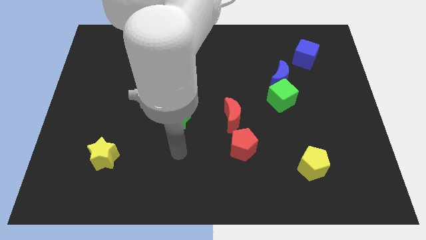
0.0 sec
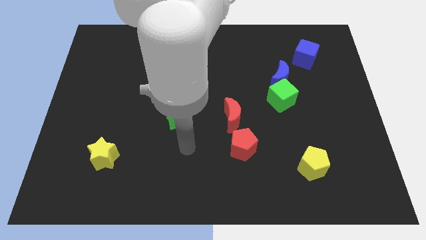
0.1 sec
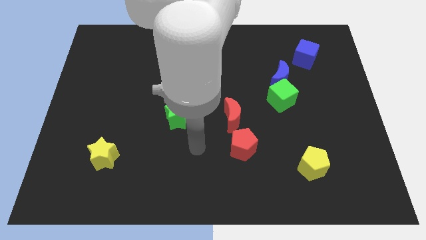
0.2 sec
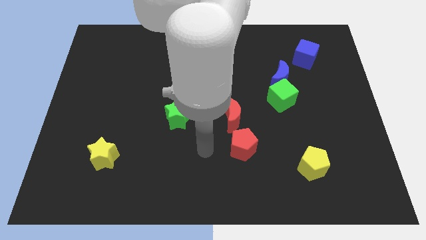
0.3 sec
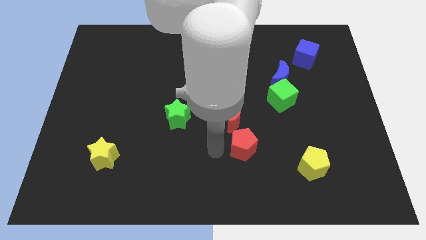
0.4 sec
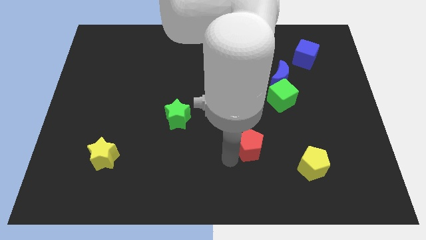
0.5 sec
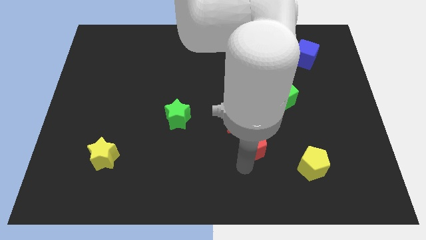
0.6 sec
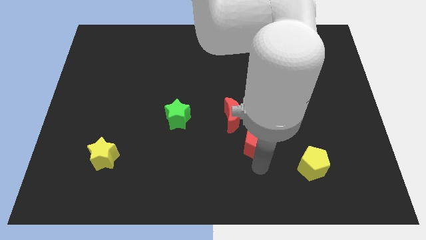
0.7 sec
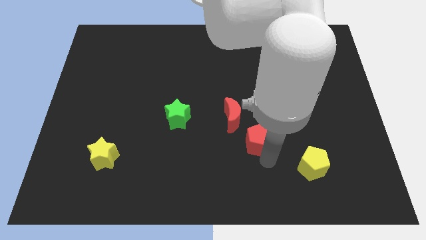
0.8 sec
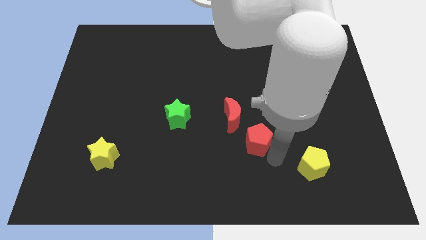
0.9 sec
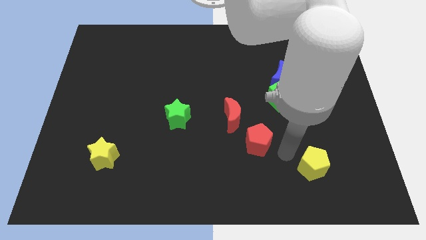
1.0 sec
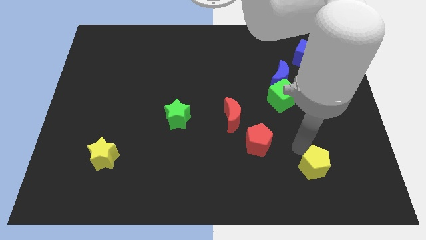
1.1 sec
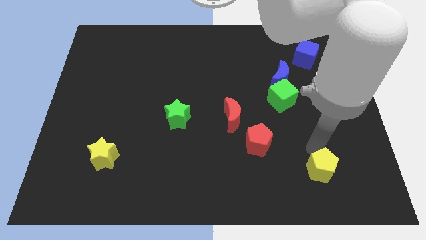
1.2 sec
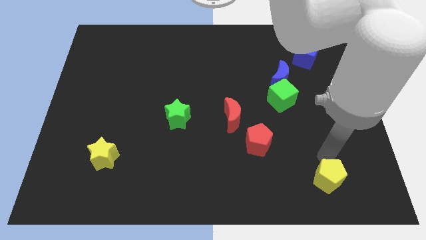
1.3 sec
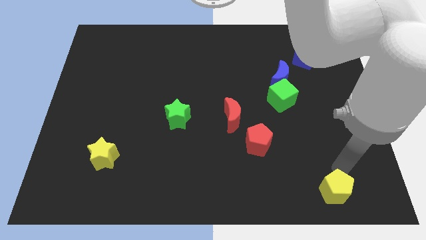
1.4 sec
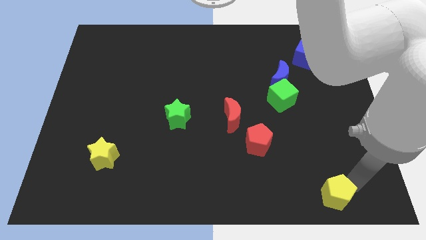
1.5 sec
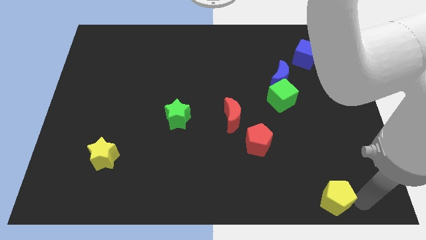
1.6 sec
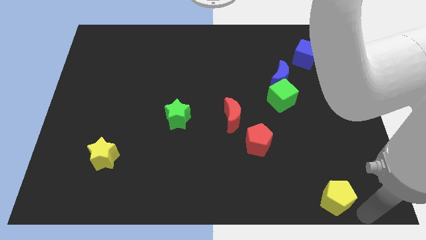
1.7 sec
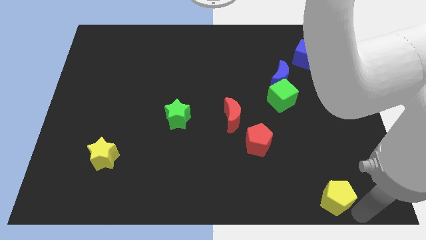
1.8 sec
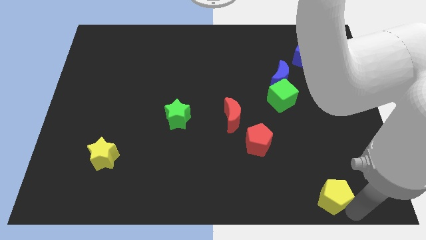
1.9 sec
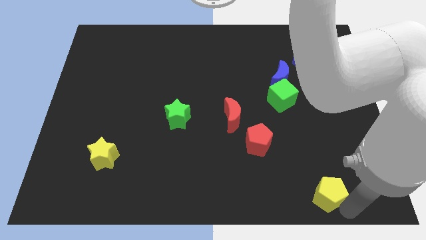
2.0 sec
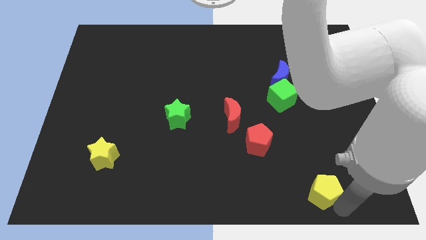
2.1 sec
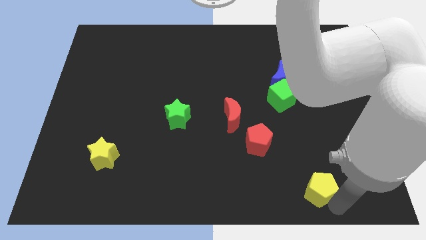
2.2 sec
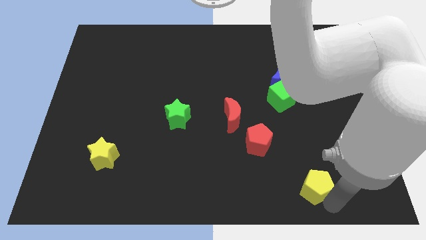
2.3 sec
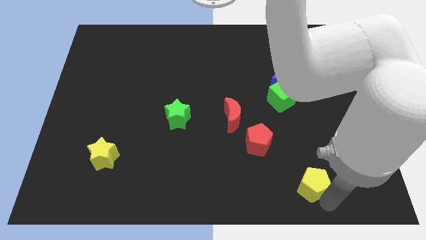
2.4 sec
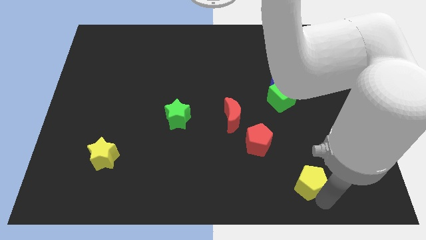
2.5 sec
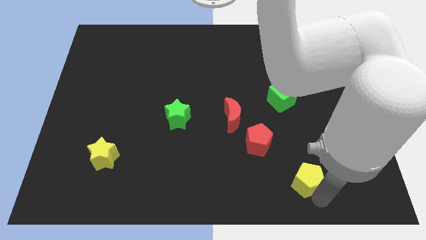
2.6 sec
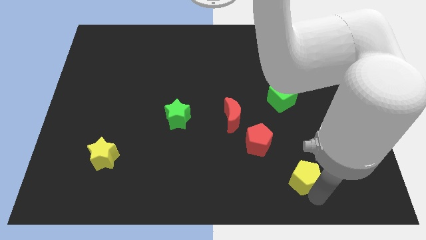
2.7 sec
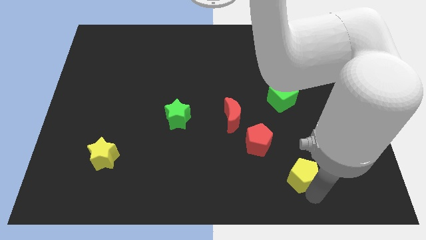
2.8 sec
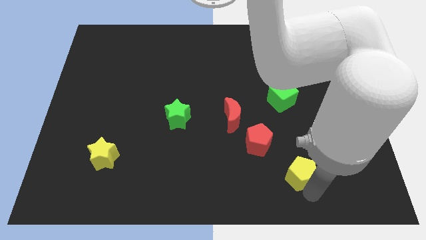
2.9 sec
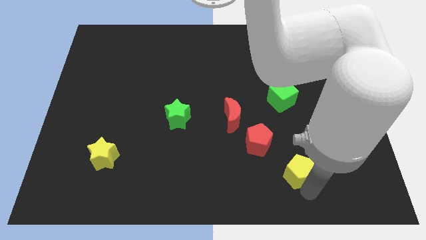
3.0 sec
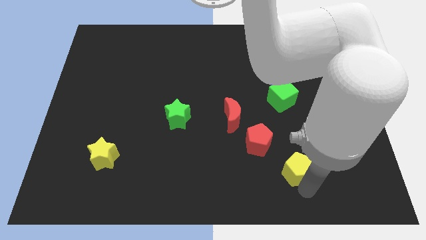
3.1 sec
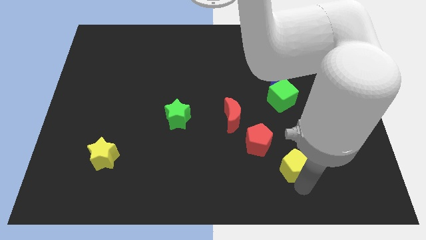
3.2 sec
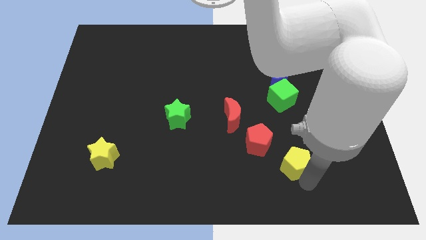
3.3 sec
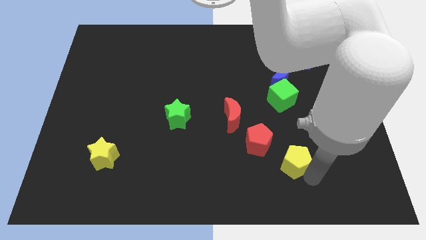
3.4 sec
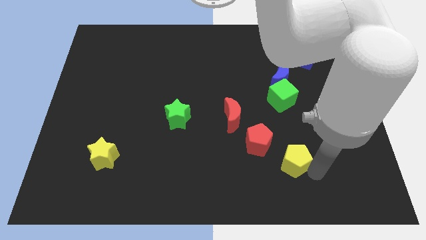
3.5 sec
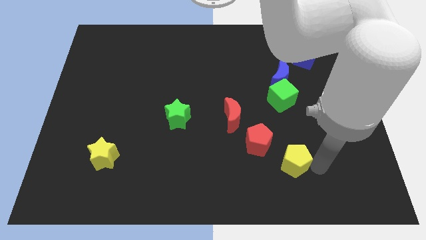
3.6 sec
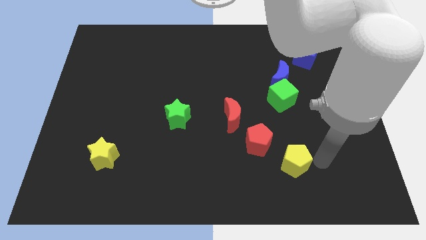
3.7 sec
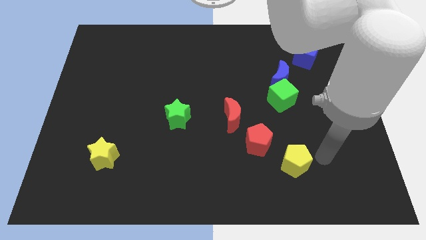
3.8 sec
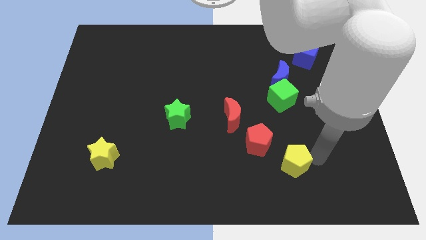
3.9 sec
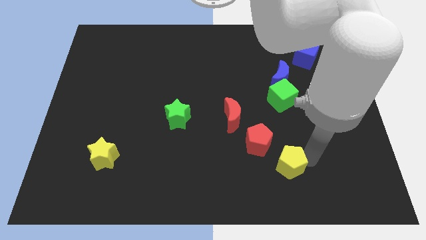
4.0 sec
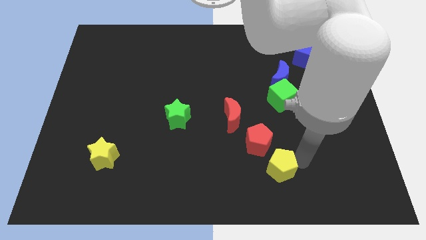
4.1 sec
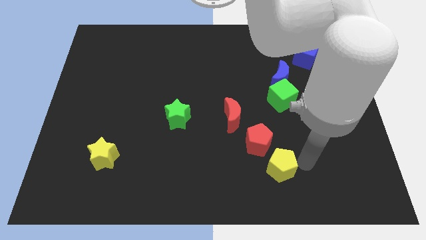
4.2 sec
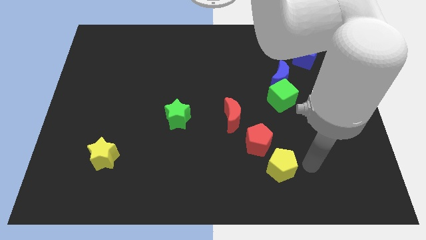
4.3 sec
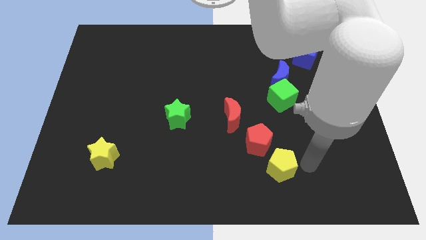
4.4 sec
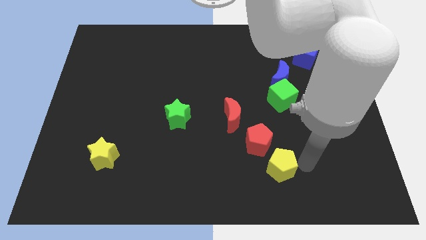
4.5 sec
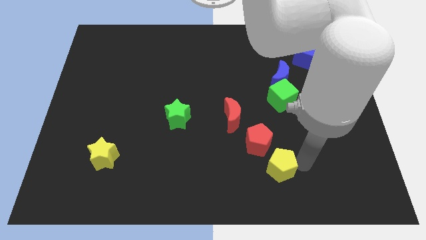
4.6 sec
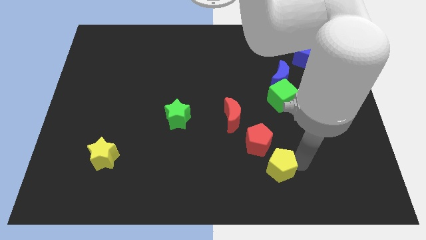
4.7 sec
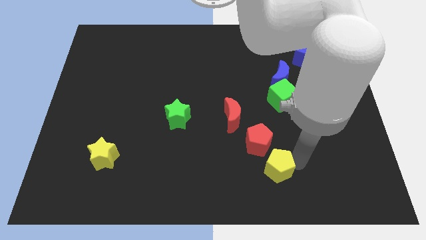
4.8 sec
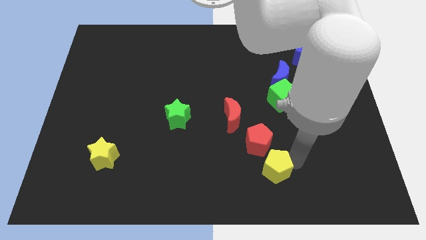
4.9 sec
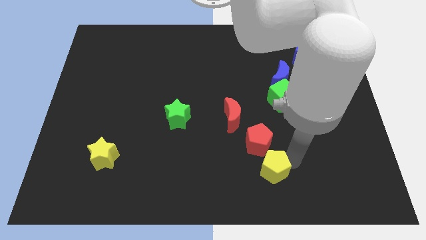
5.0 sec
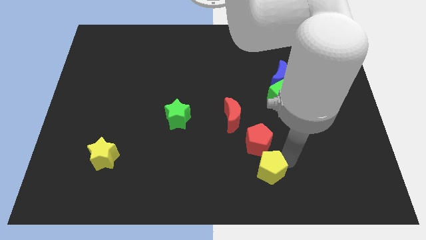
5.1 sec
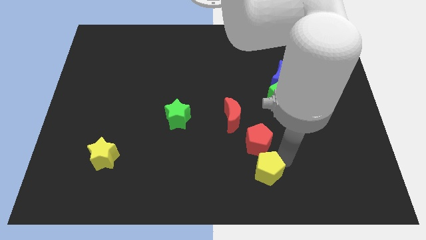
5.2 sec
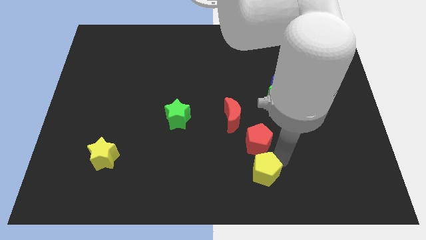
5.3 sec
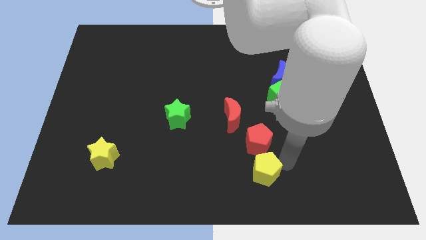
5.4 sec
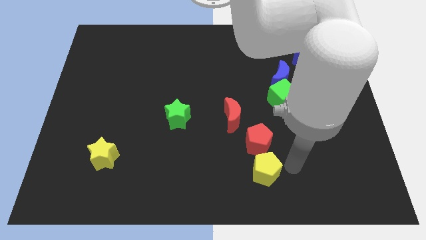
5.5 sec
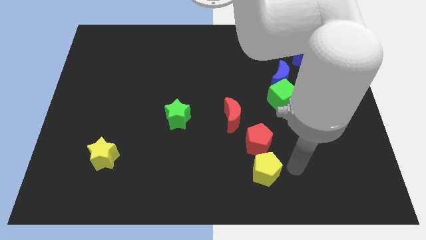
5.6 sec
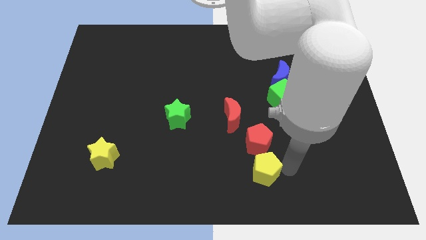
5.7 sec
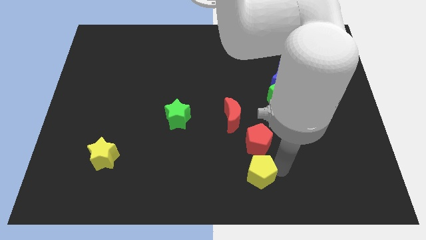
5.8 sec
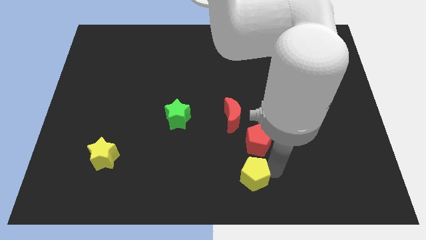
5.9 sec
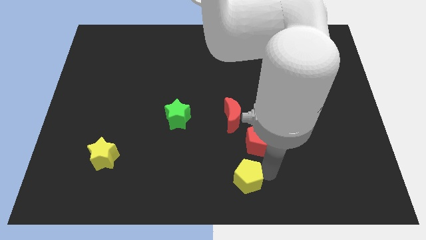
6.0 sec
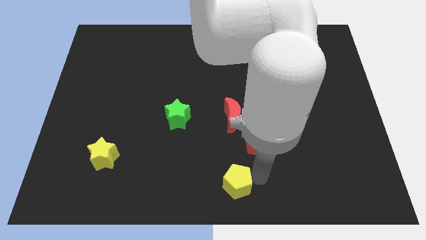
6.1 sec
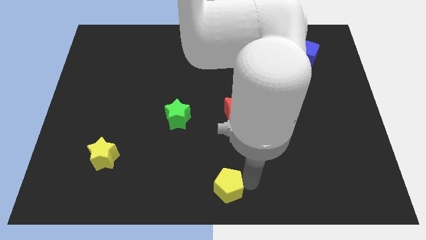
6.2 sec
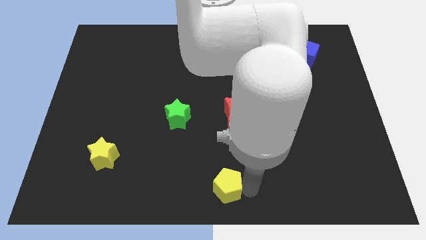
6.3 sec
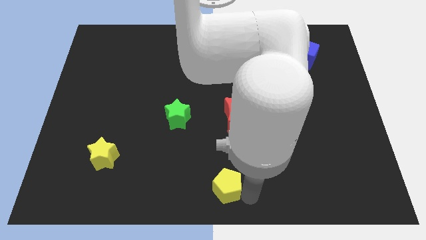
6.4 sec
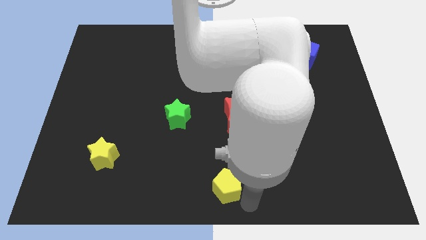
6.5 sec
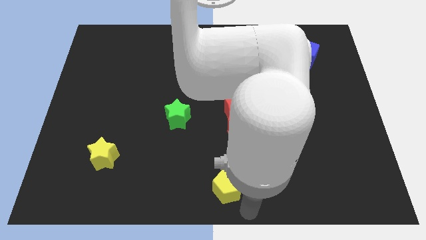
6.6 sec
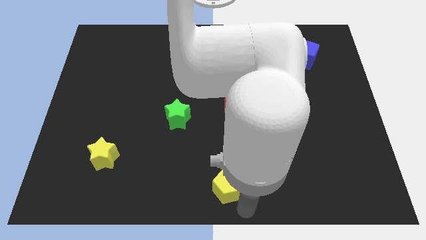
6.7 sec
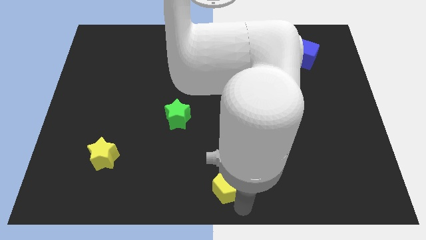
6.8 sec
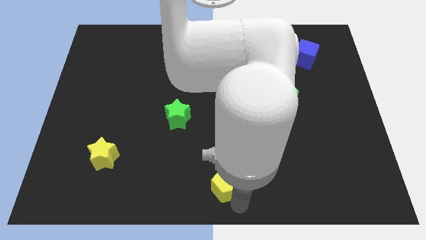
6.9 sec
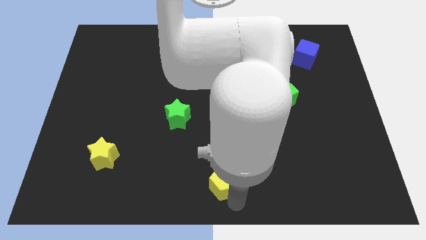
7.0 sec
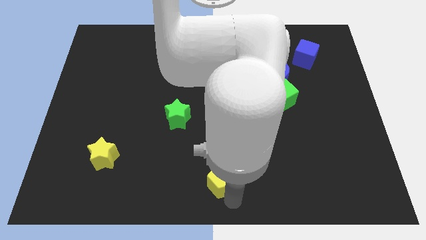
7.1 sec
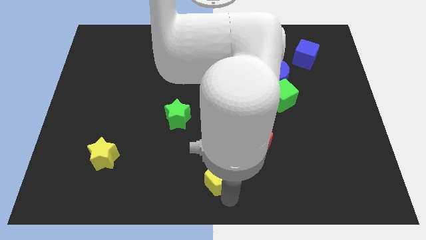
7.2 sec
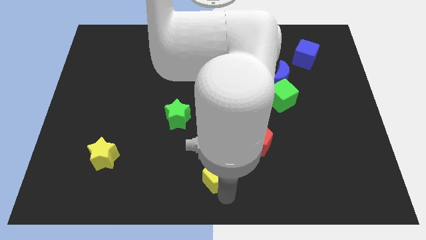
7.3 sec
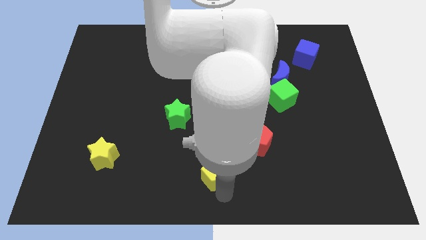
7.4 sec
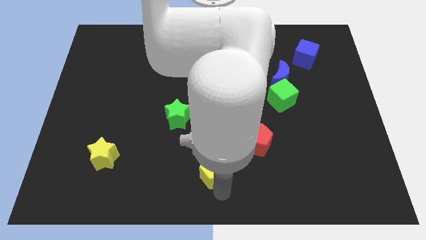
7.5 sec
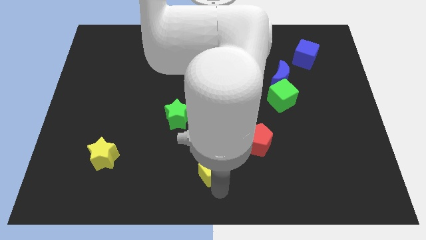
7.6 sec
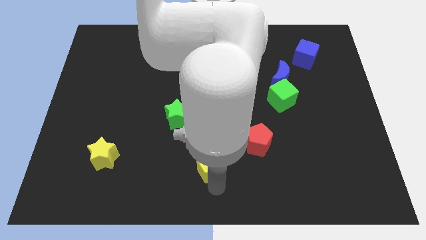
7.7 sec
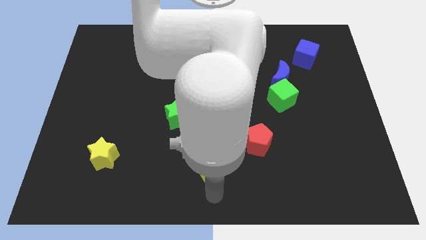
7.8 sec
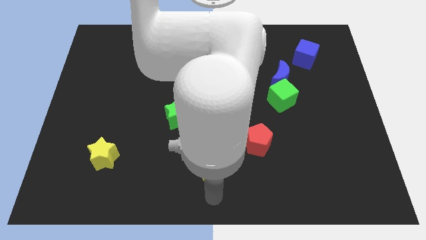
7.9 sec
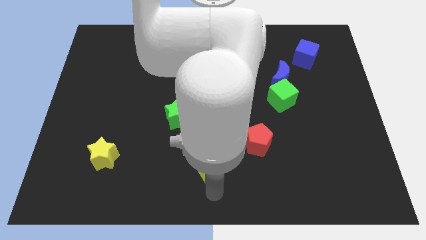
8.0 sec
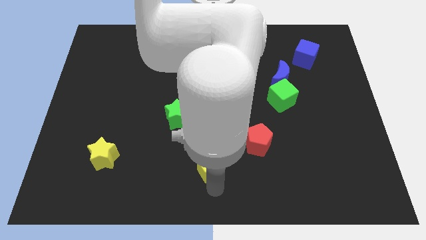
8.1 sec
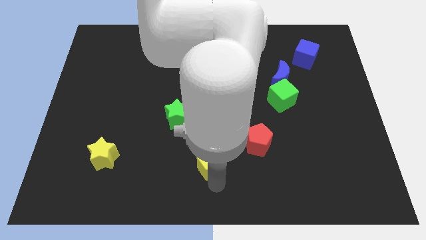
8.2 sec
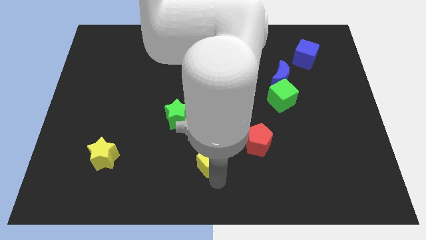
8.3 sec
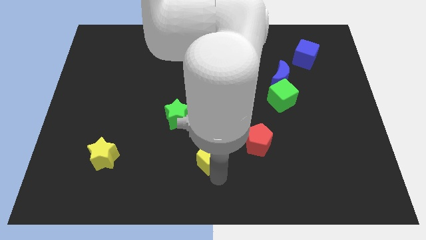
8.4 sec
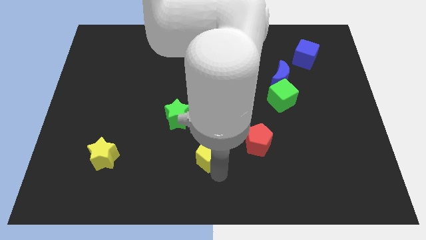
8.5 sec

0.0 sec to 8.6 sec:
push the yellow pentagon diagonally down and to the left of the red moon
